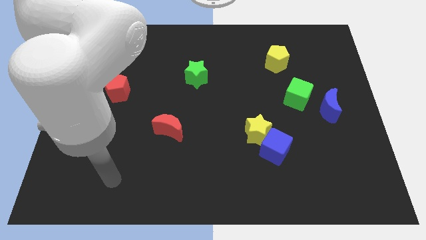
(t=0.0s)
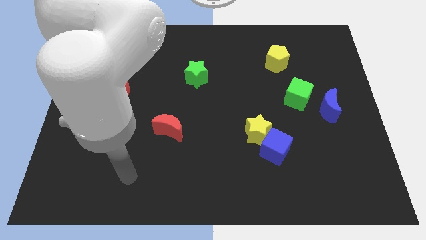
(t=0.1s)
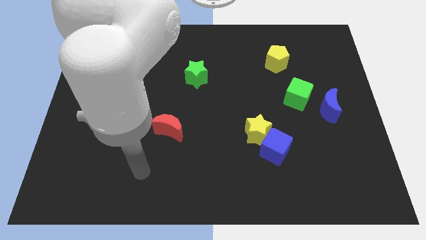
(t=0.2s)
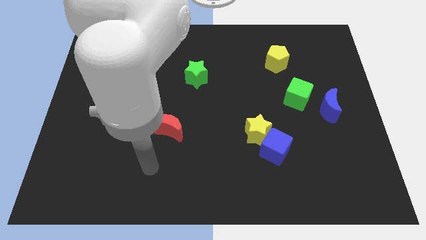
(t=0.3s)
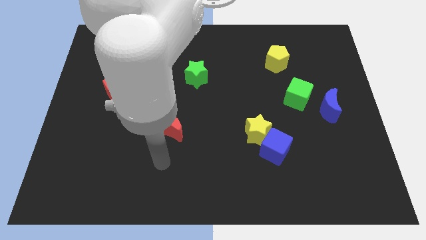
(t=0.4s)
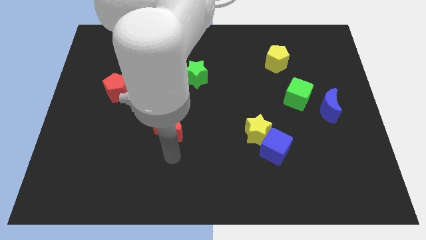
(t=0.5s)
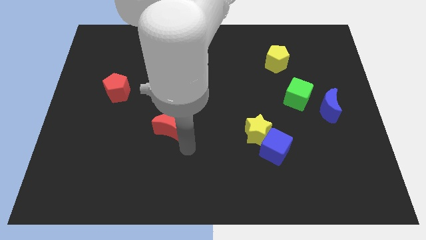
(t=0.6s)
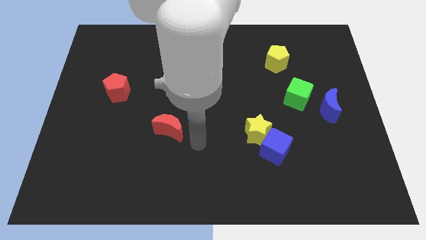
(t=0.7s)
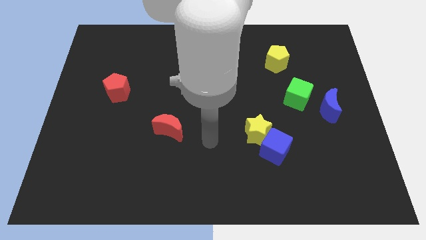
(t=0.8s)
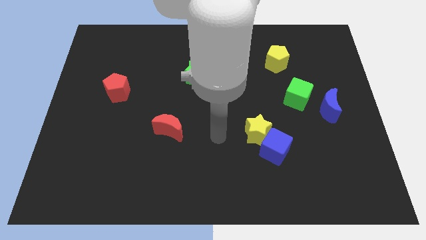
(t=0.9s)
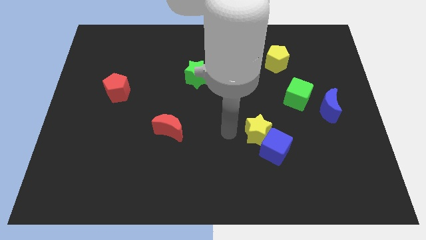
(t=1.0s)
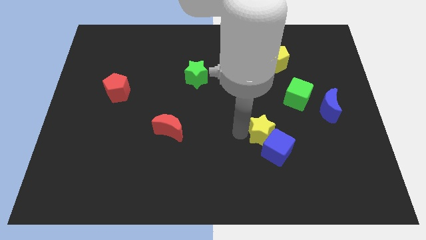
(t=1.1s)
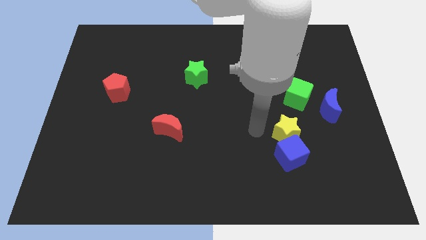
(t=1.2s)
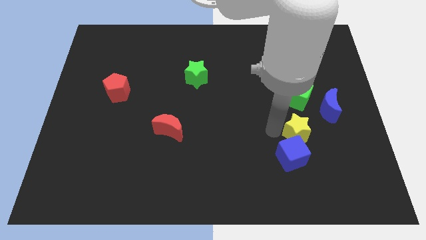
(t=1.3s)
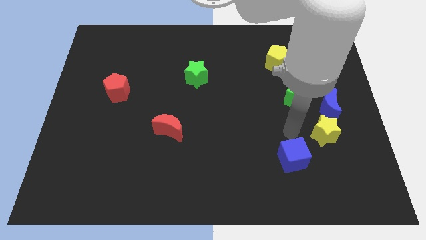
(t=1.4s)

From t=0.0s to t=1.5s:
separate the blue cube from the yellow star

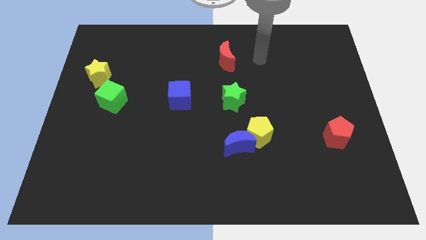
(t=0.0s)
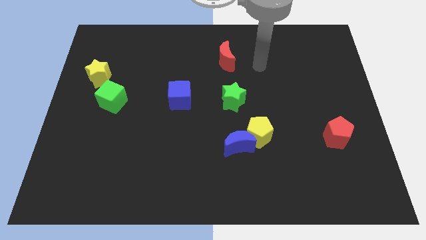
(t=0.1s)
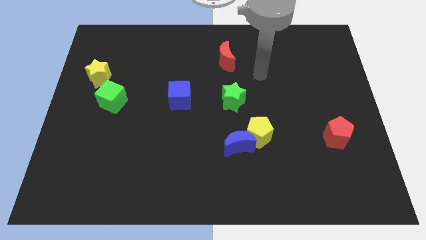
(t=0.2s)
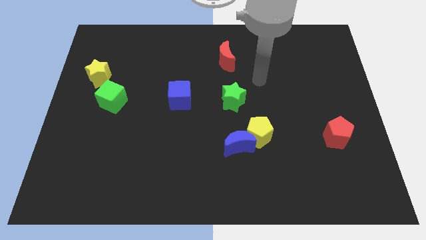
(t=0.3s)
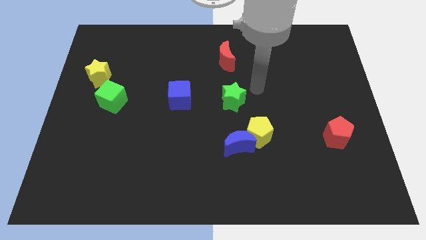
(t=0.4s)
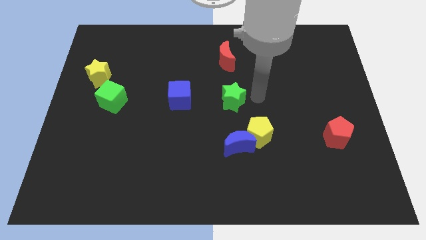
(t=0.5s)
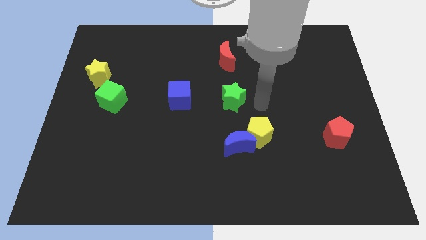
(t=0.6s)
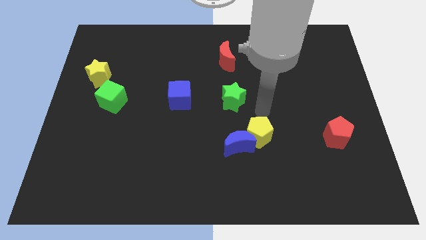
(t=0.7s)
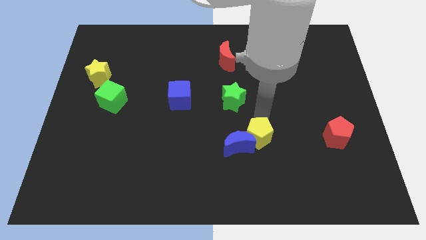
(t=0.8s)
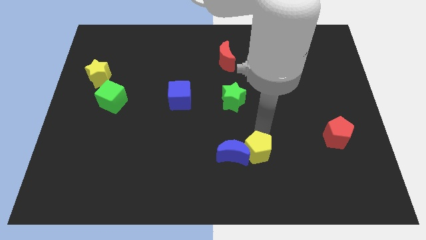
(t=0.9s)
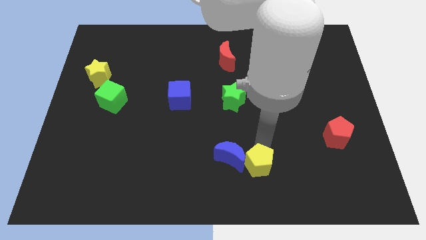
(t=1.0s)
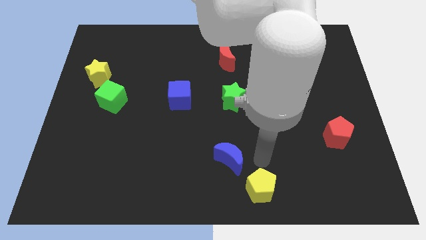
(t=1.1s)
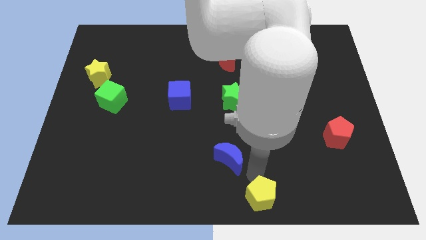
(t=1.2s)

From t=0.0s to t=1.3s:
move the blue moon away from the yellow pentagon

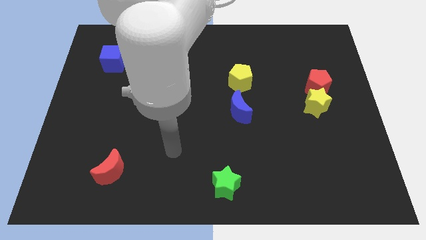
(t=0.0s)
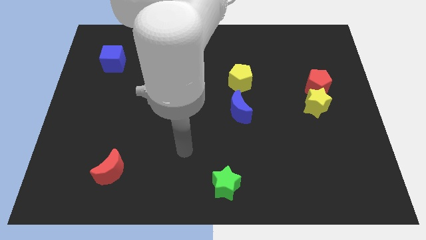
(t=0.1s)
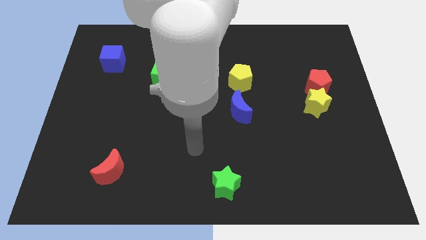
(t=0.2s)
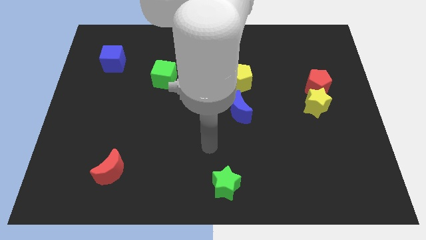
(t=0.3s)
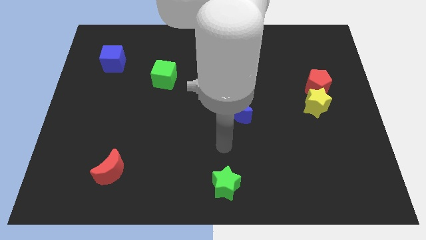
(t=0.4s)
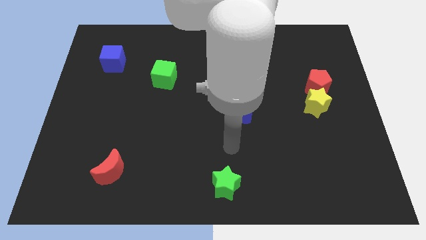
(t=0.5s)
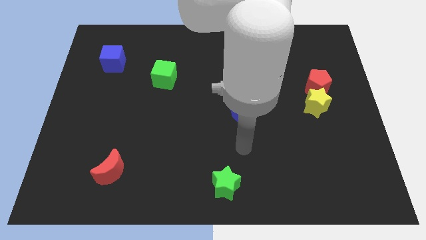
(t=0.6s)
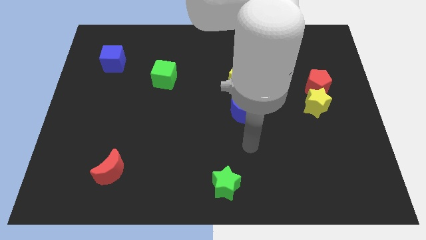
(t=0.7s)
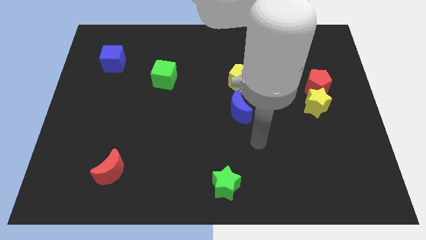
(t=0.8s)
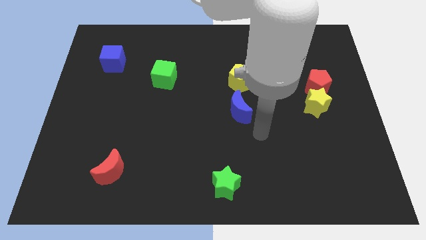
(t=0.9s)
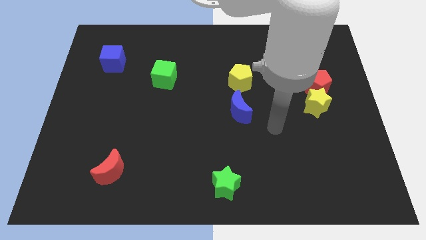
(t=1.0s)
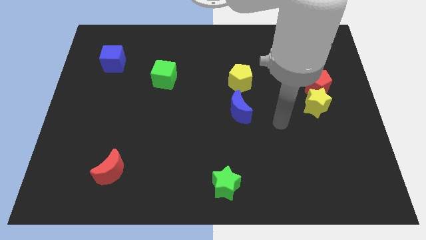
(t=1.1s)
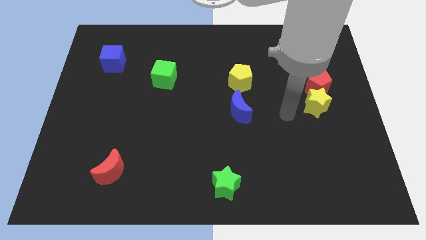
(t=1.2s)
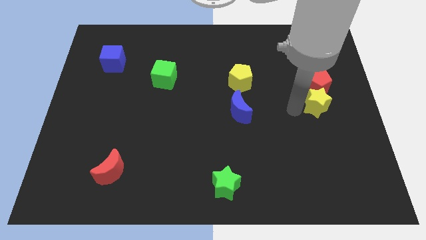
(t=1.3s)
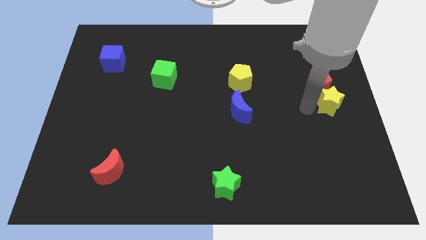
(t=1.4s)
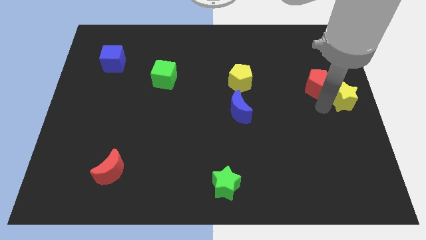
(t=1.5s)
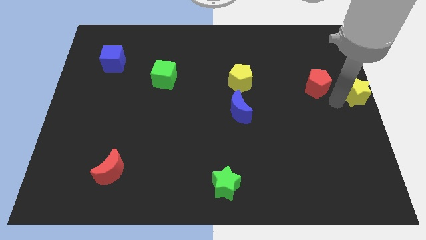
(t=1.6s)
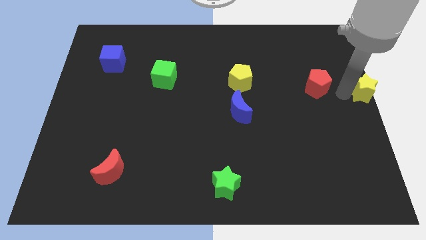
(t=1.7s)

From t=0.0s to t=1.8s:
move the red pentagon away from the yellow star

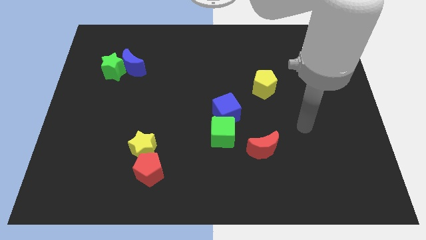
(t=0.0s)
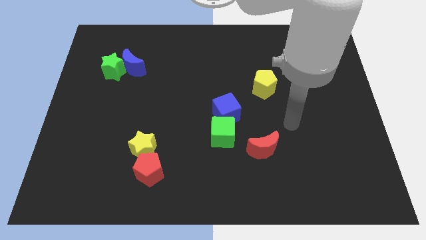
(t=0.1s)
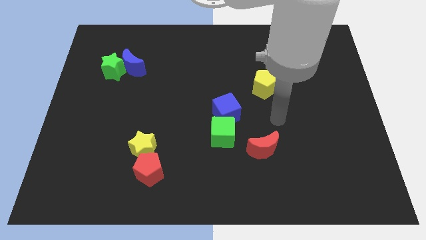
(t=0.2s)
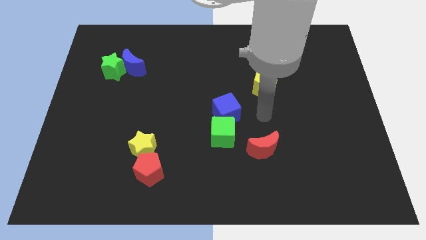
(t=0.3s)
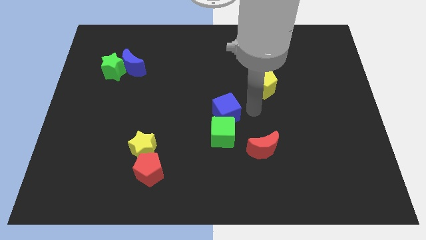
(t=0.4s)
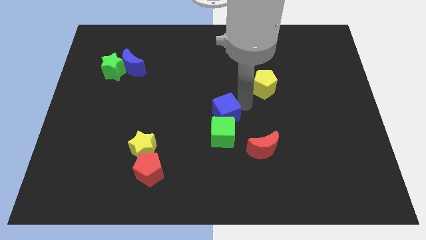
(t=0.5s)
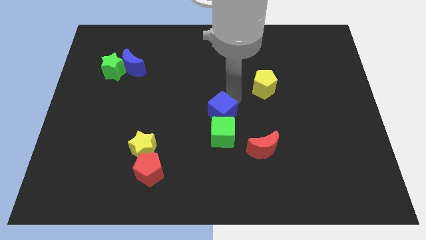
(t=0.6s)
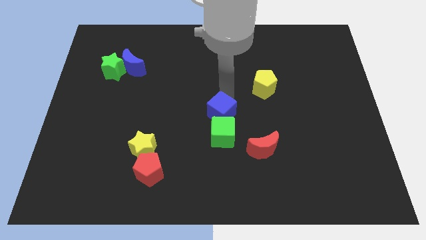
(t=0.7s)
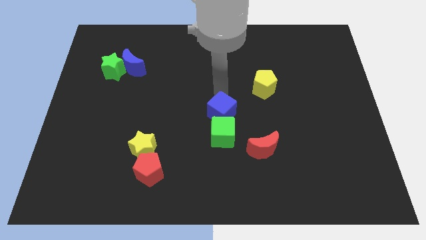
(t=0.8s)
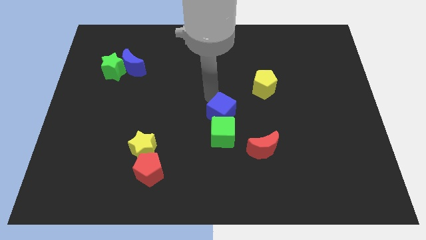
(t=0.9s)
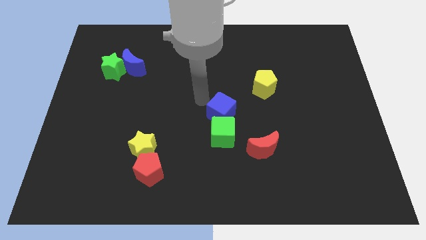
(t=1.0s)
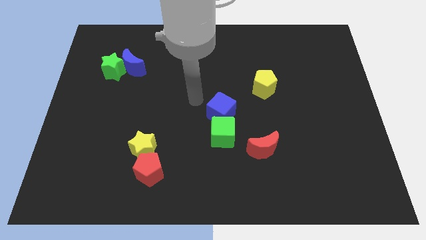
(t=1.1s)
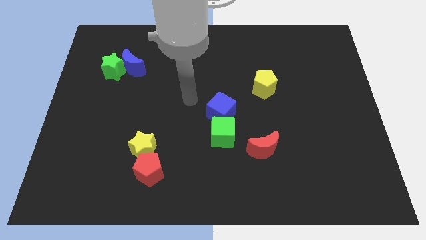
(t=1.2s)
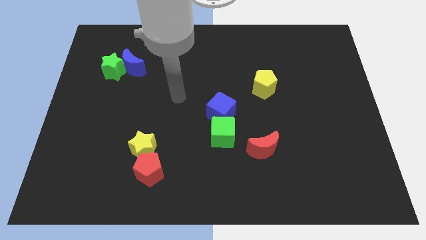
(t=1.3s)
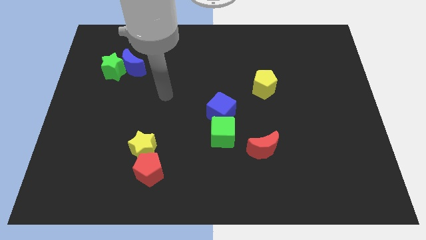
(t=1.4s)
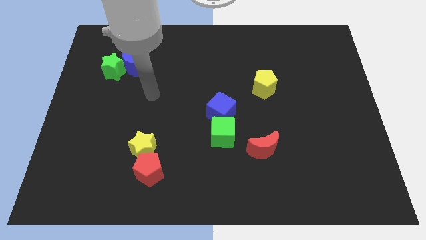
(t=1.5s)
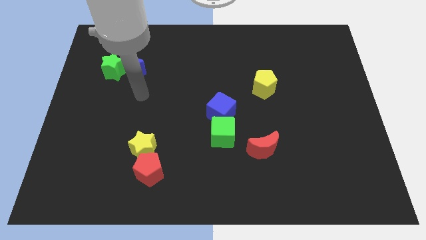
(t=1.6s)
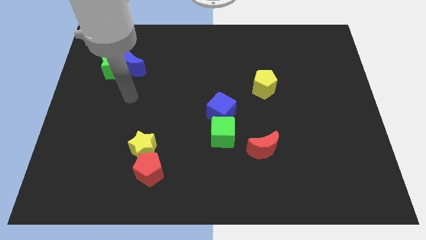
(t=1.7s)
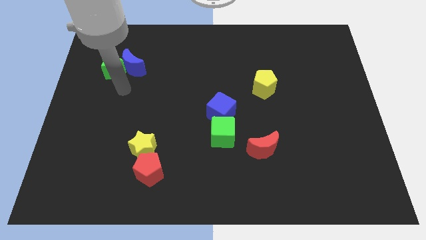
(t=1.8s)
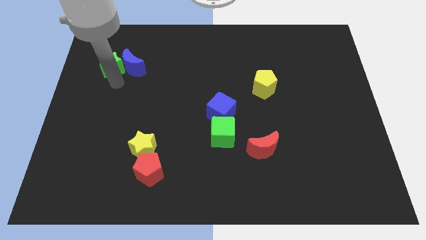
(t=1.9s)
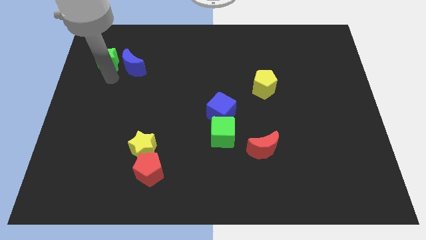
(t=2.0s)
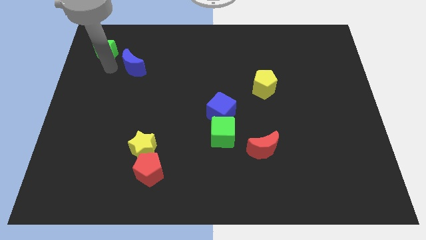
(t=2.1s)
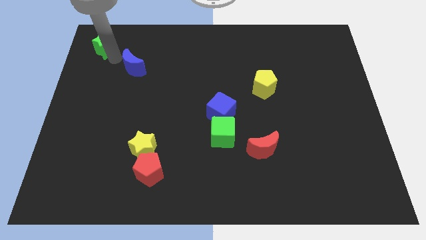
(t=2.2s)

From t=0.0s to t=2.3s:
separate the blue moon from the green star

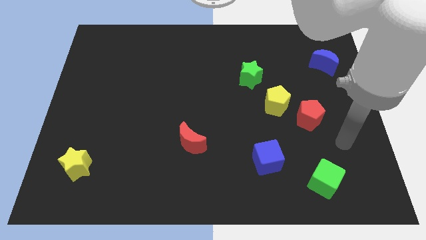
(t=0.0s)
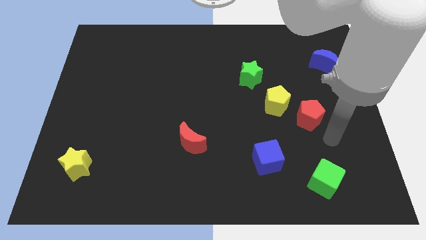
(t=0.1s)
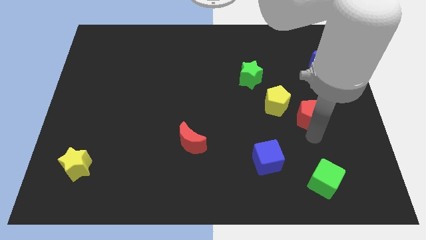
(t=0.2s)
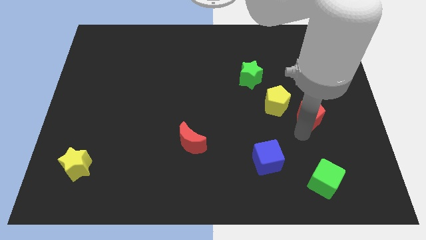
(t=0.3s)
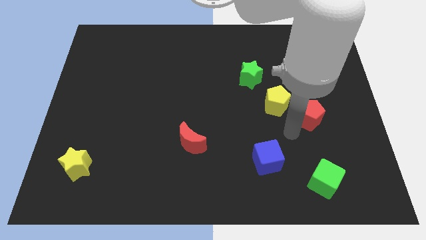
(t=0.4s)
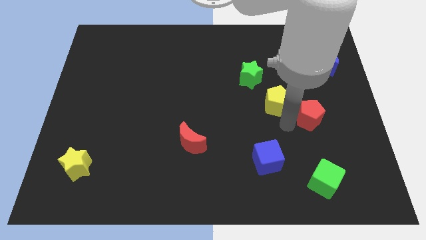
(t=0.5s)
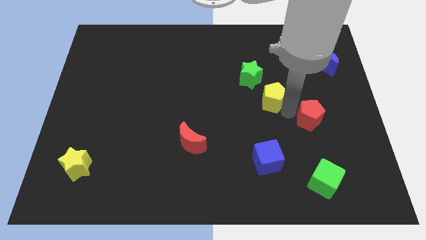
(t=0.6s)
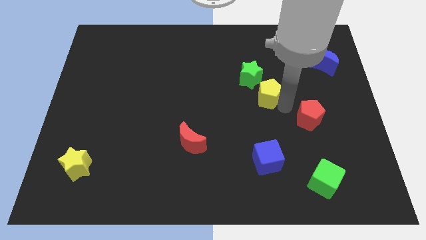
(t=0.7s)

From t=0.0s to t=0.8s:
pull the red pentagon apart from the yellow pentagon

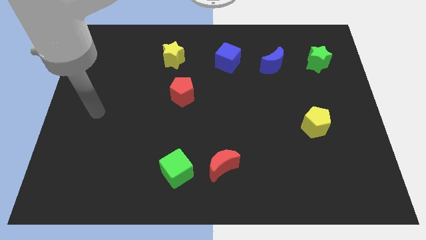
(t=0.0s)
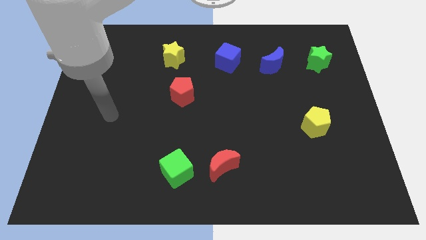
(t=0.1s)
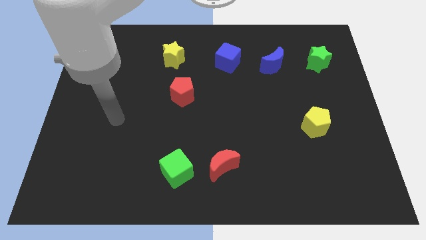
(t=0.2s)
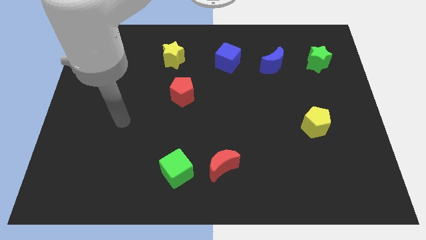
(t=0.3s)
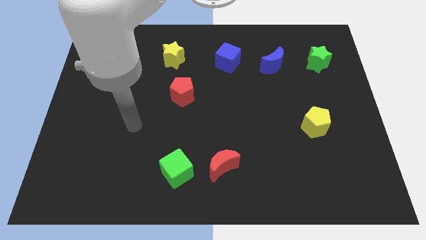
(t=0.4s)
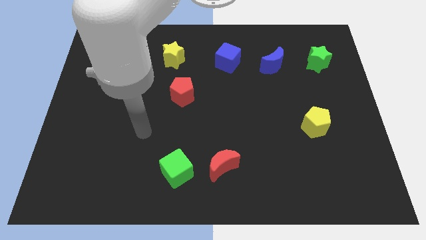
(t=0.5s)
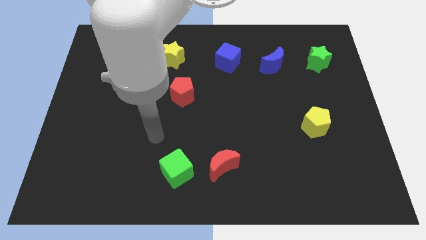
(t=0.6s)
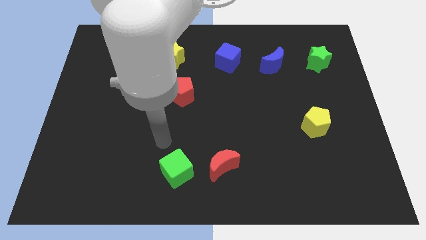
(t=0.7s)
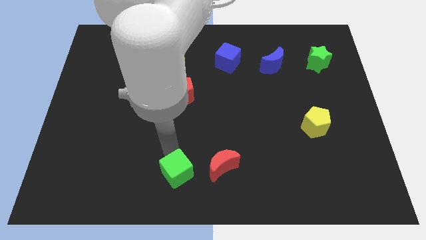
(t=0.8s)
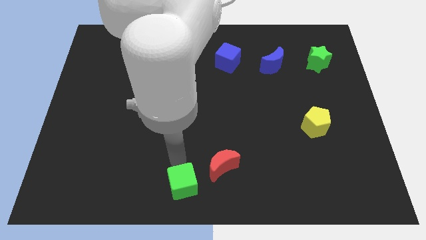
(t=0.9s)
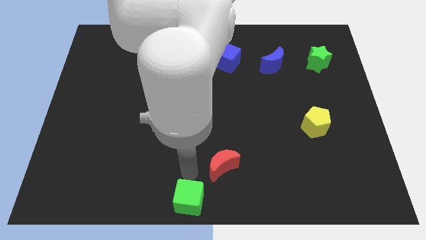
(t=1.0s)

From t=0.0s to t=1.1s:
separate the red moon from the green cube

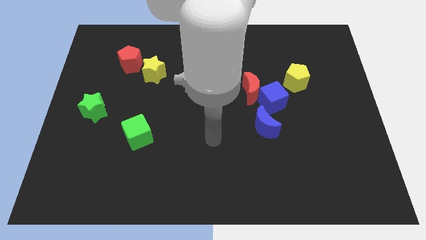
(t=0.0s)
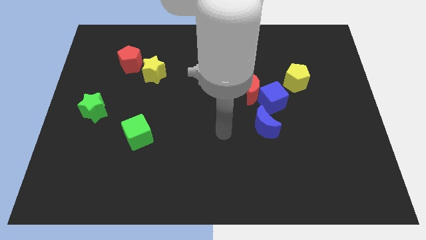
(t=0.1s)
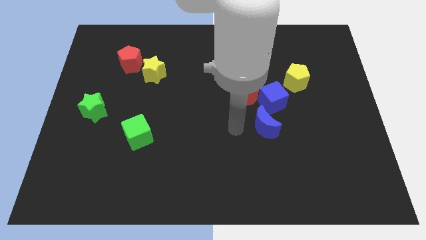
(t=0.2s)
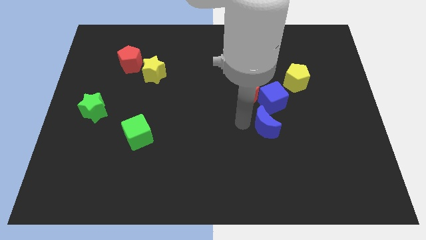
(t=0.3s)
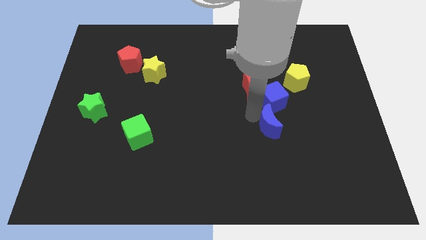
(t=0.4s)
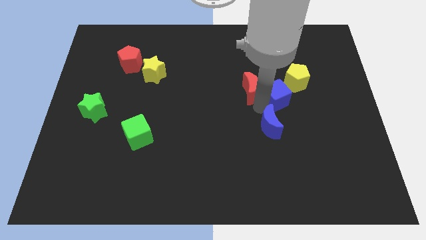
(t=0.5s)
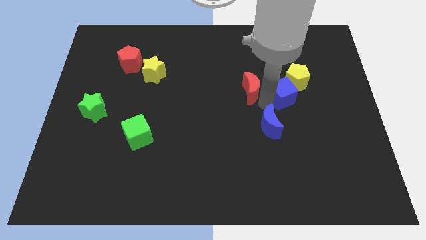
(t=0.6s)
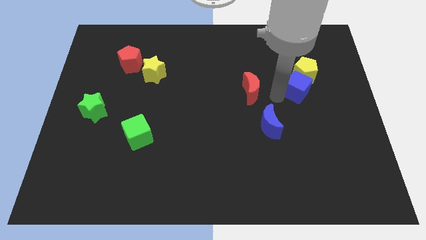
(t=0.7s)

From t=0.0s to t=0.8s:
separate the red moon from the blue cube
